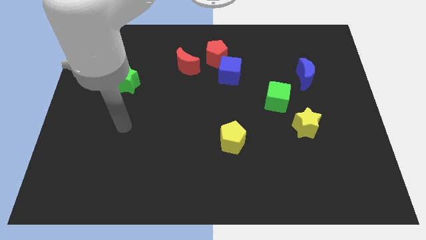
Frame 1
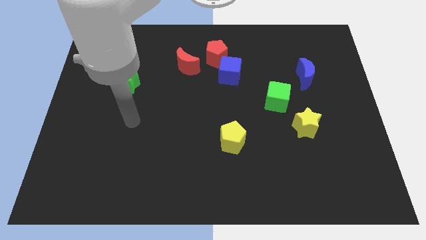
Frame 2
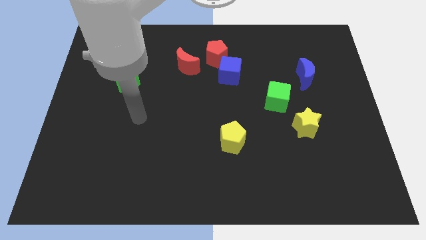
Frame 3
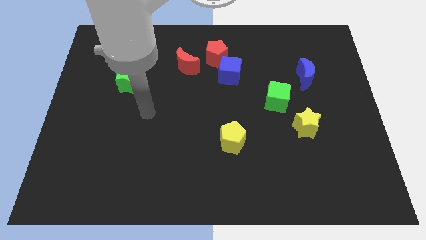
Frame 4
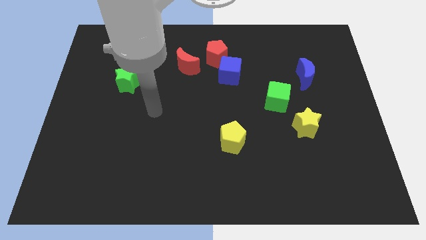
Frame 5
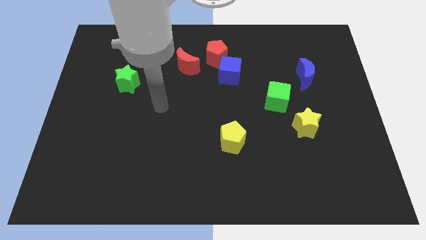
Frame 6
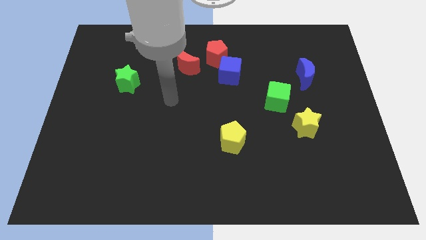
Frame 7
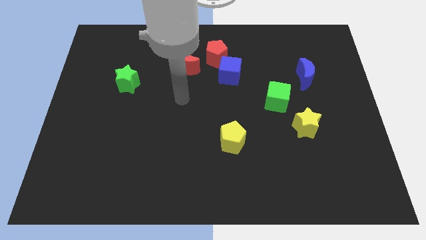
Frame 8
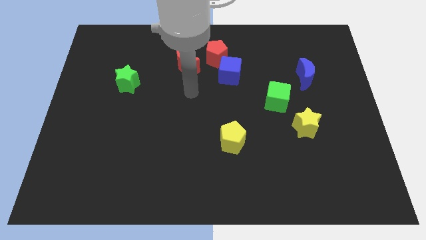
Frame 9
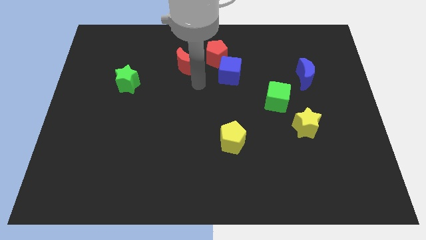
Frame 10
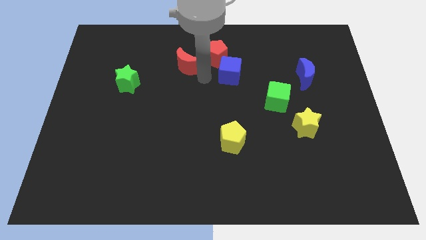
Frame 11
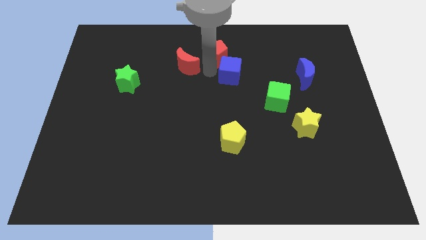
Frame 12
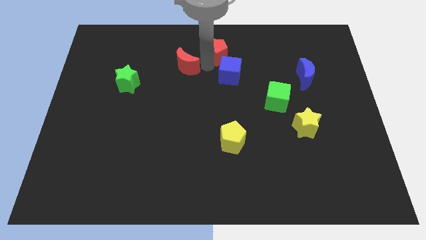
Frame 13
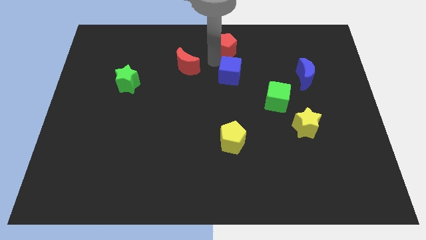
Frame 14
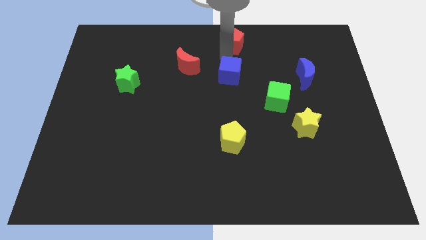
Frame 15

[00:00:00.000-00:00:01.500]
move the blue cube away from the red pentagon

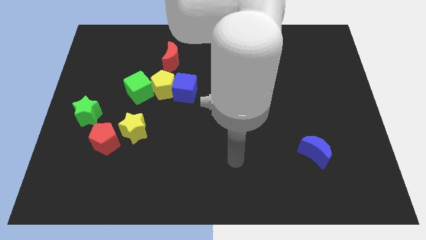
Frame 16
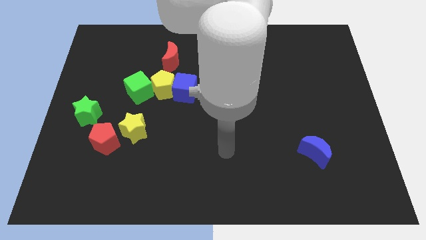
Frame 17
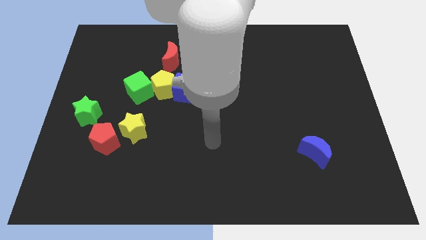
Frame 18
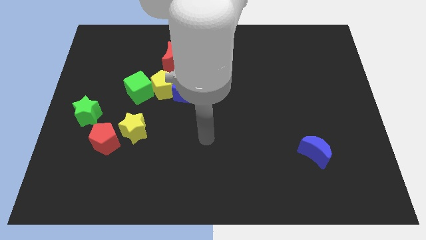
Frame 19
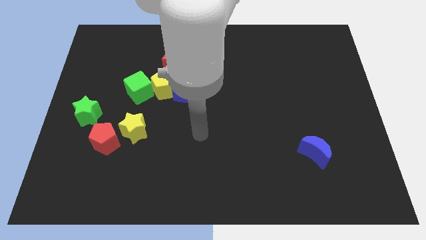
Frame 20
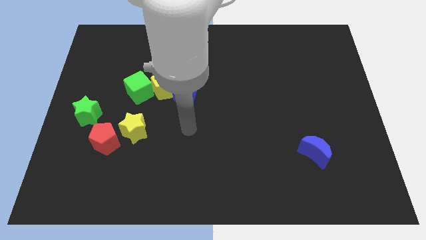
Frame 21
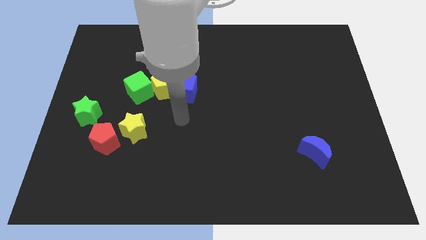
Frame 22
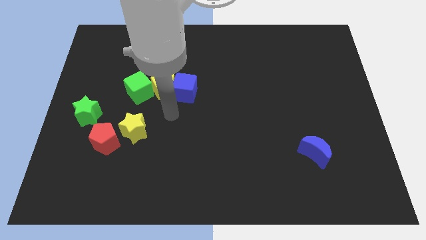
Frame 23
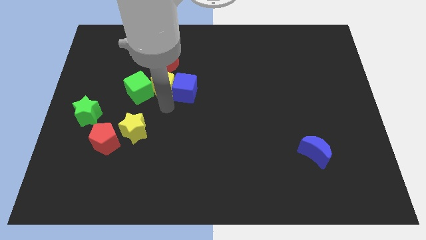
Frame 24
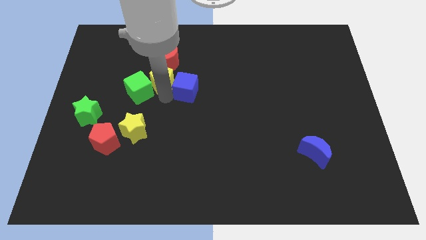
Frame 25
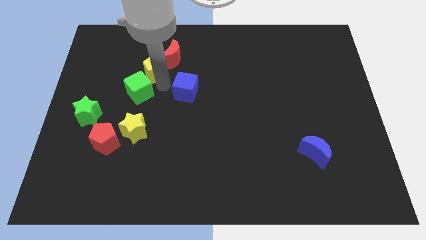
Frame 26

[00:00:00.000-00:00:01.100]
move the blue cube away from the yellow pentagon

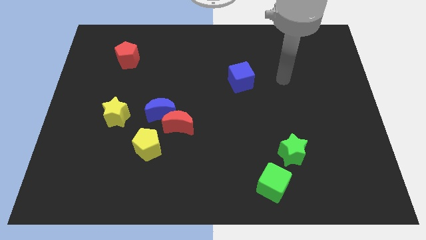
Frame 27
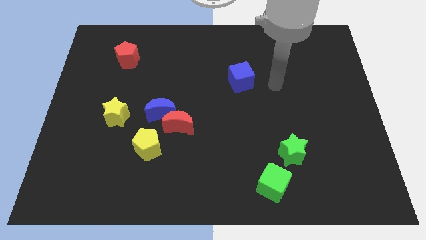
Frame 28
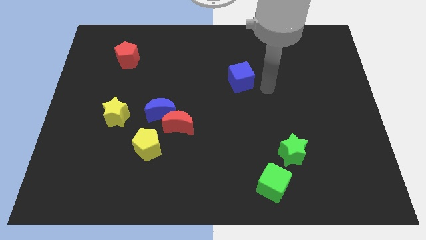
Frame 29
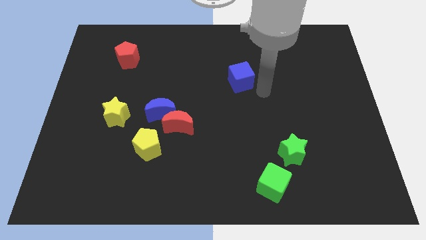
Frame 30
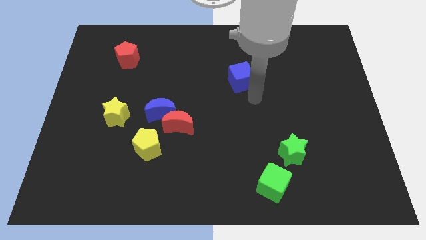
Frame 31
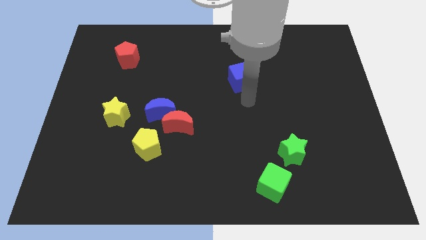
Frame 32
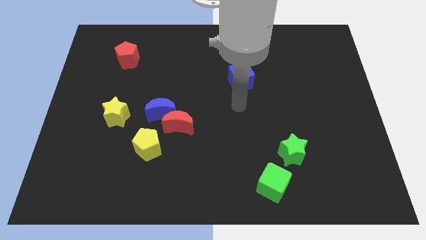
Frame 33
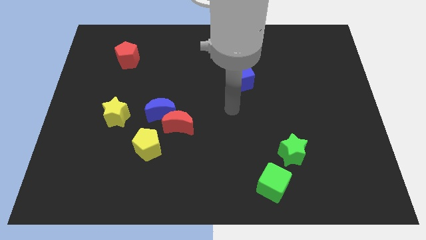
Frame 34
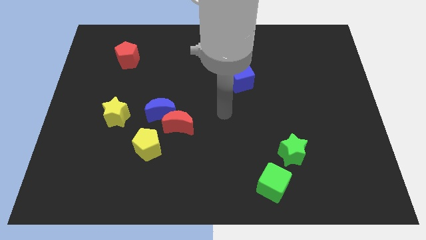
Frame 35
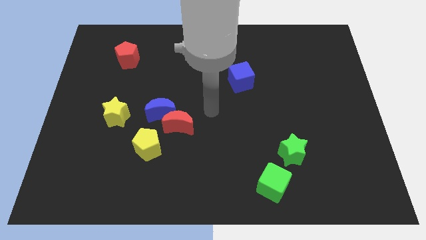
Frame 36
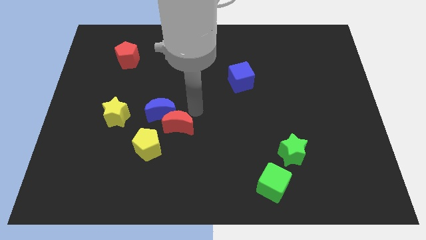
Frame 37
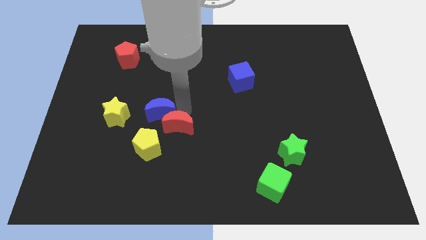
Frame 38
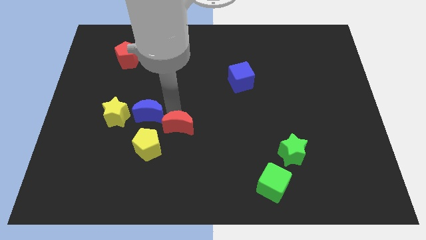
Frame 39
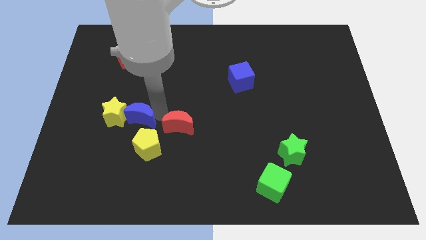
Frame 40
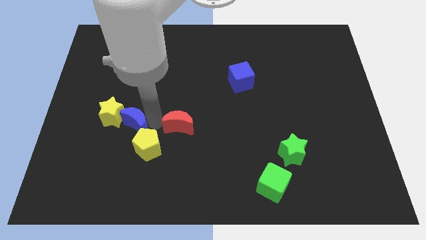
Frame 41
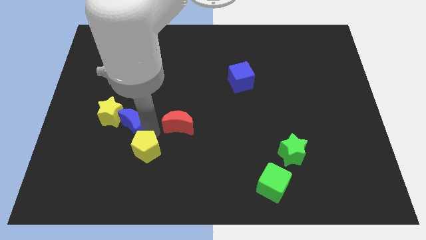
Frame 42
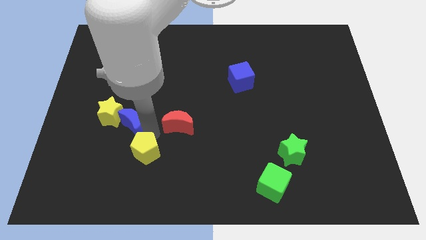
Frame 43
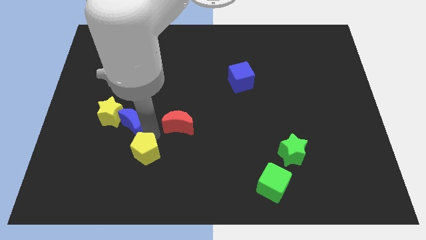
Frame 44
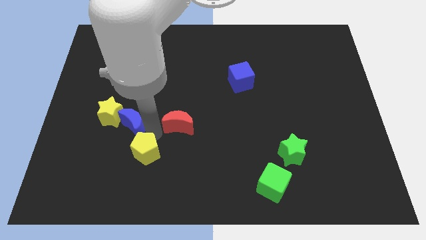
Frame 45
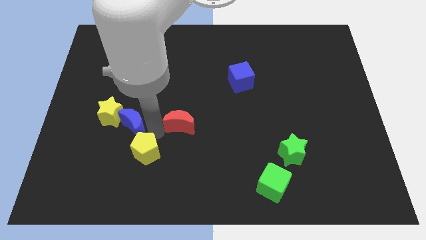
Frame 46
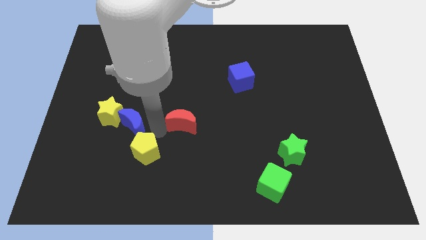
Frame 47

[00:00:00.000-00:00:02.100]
move the red moon away from the blue moon and yellow pentagon

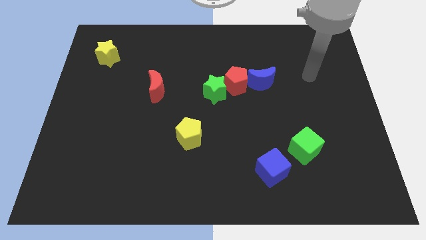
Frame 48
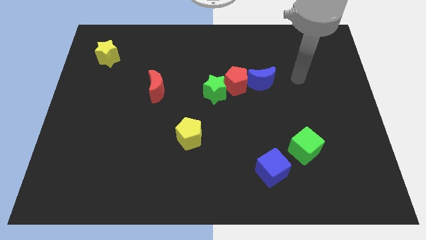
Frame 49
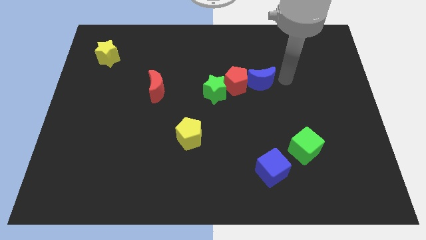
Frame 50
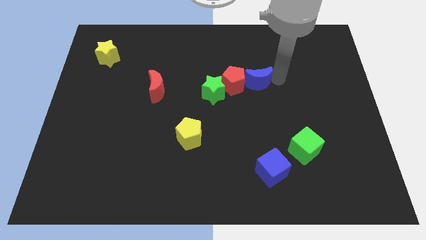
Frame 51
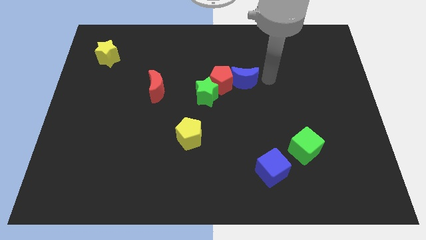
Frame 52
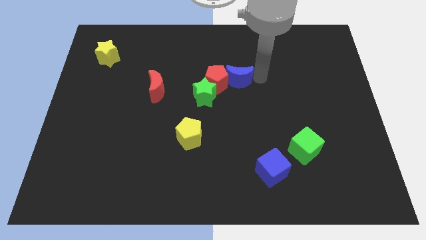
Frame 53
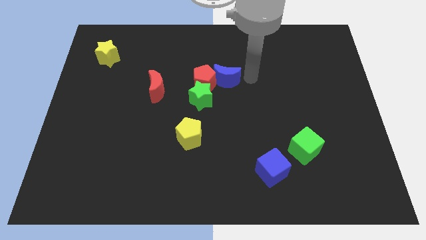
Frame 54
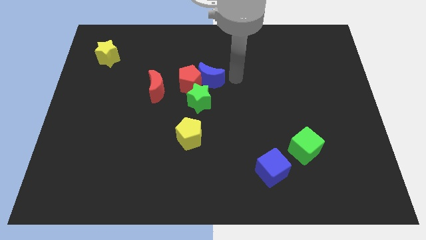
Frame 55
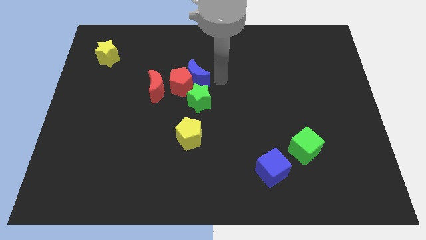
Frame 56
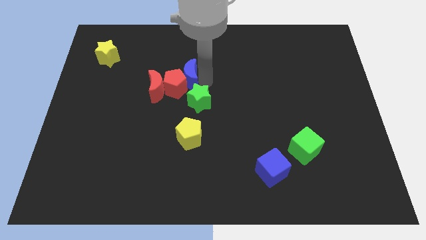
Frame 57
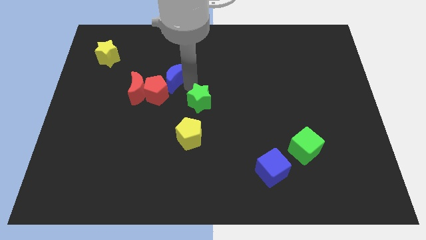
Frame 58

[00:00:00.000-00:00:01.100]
pull the green star apart from the red pentagon

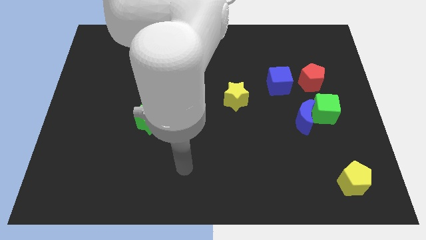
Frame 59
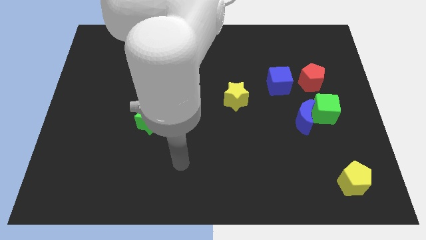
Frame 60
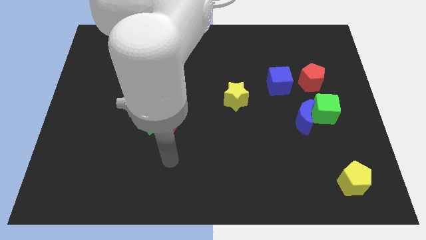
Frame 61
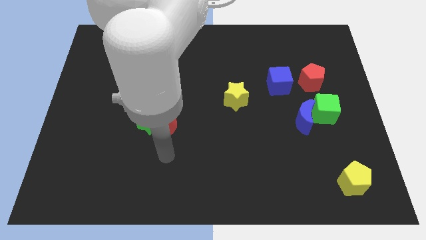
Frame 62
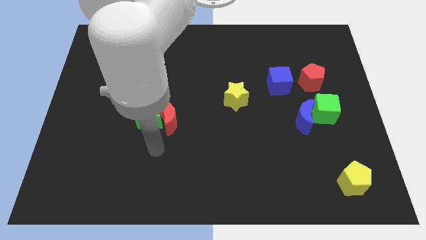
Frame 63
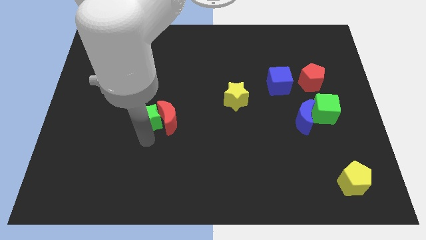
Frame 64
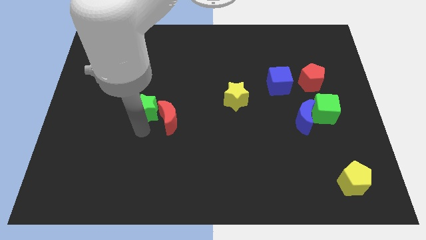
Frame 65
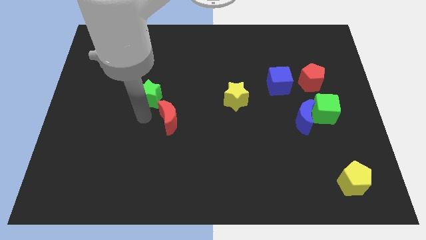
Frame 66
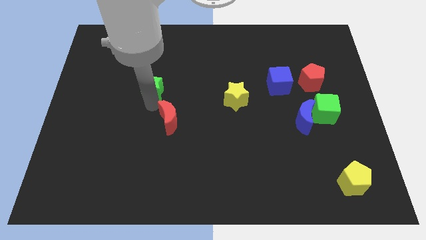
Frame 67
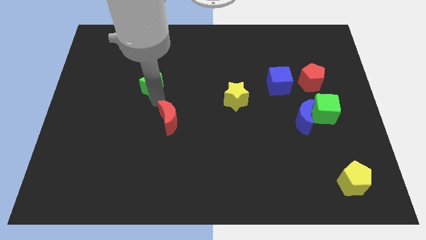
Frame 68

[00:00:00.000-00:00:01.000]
pull the red moon apart from the green star

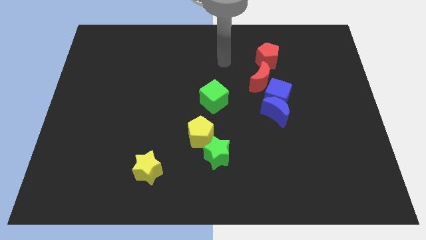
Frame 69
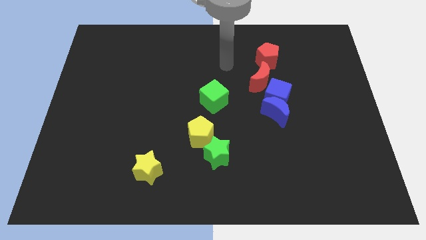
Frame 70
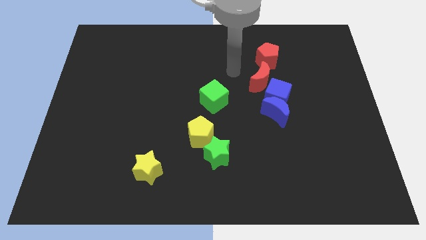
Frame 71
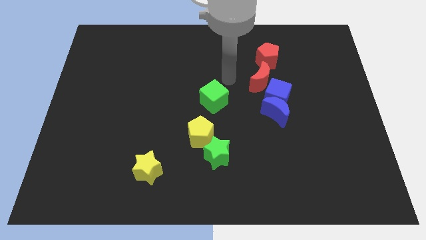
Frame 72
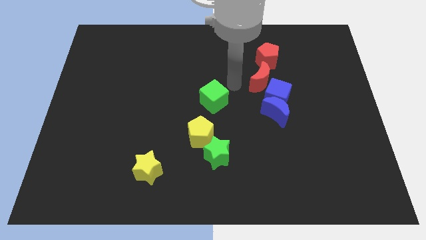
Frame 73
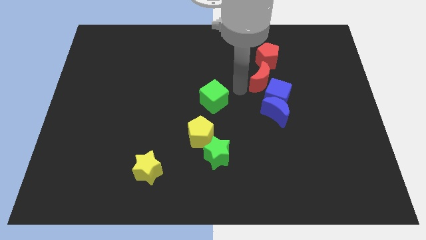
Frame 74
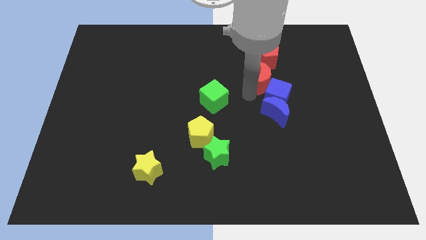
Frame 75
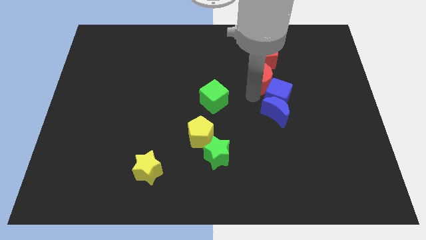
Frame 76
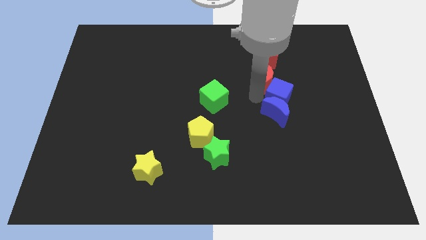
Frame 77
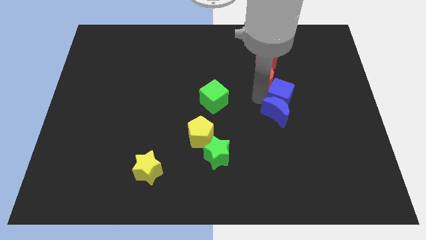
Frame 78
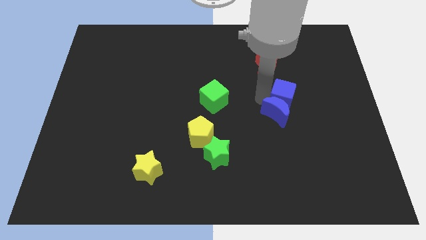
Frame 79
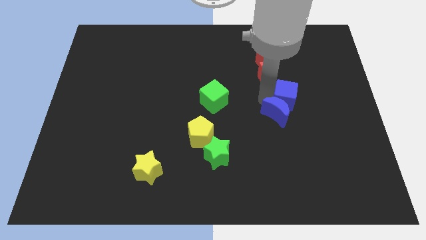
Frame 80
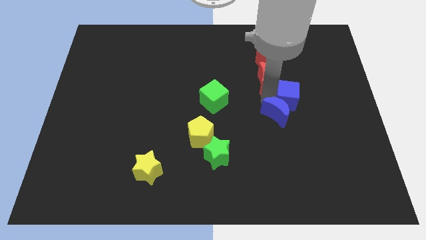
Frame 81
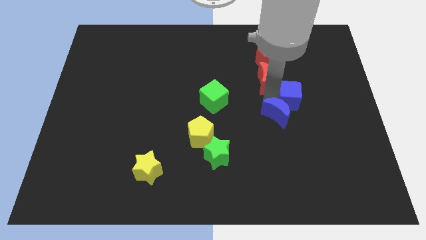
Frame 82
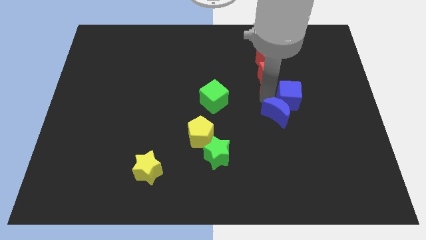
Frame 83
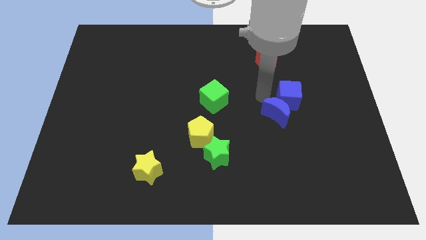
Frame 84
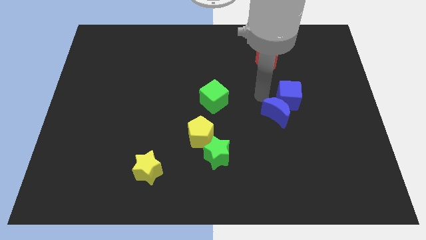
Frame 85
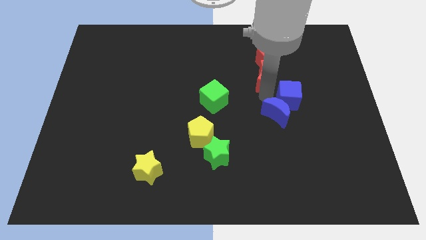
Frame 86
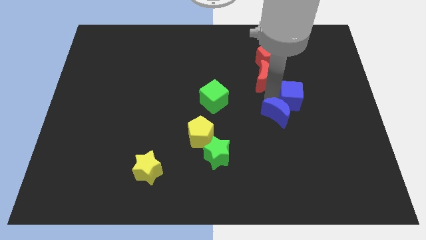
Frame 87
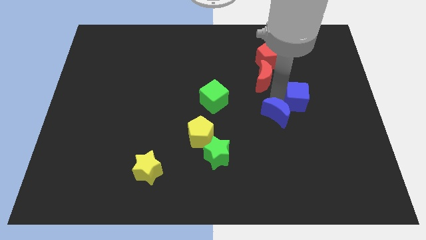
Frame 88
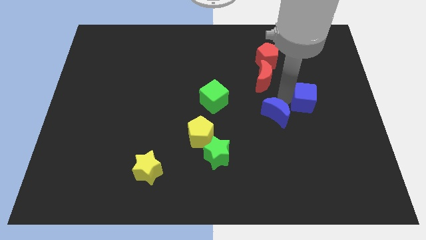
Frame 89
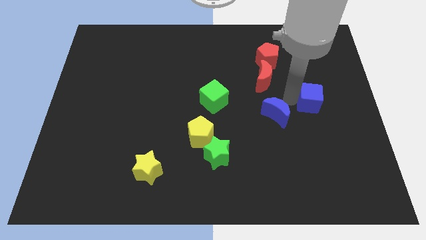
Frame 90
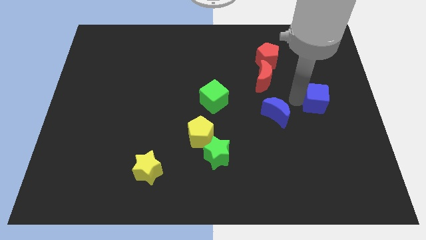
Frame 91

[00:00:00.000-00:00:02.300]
separate the blue cube from the blue moon and red moon
